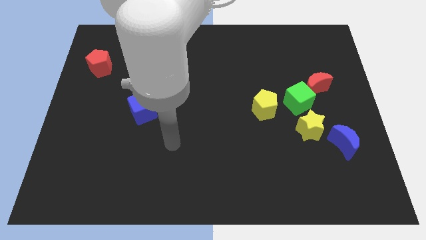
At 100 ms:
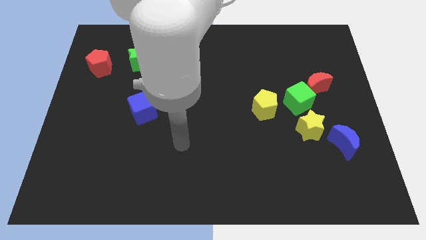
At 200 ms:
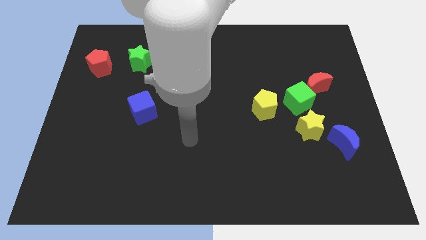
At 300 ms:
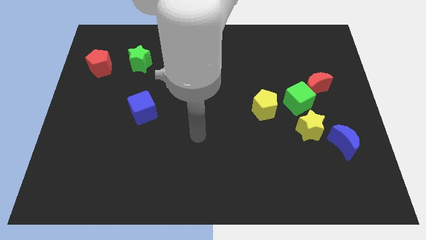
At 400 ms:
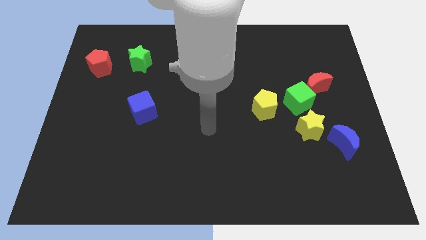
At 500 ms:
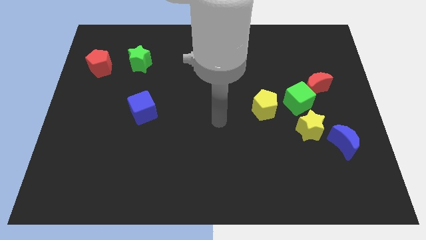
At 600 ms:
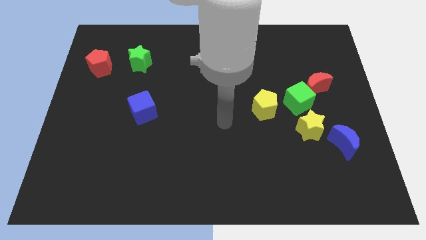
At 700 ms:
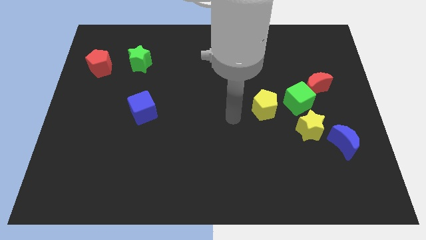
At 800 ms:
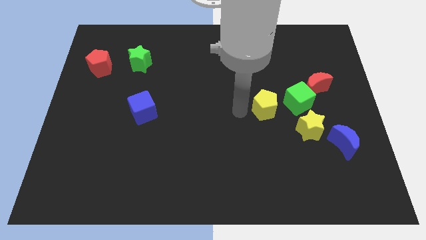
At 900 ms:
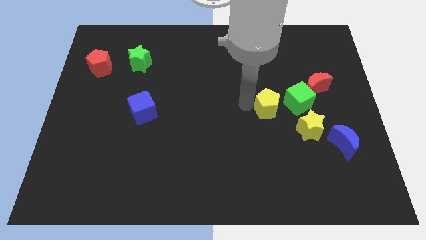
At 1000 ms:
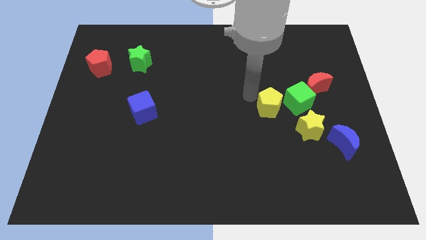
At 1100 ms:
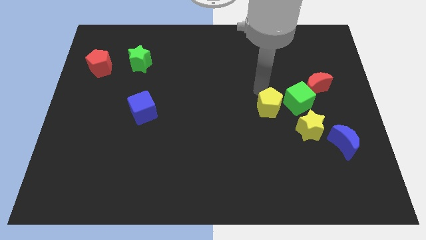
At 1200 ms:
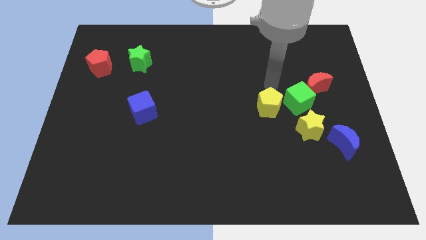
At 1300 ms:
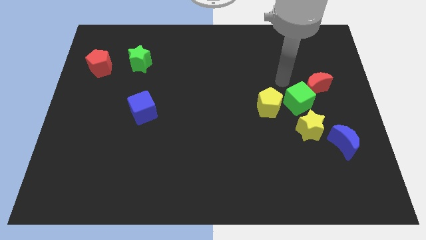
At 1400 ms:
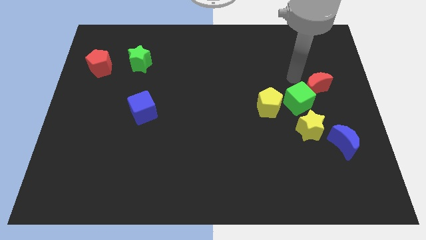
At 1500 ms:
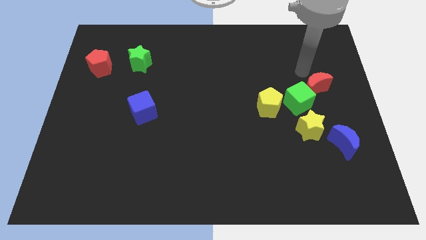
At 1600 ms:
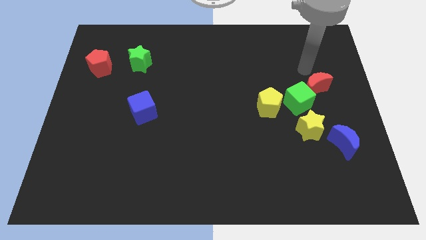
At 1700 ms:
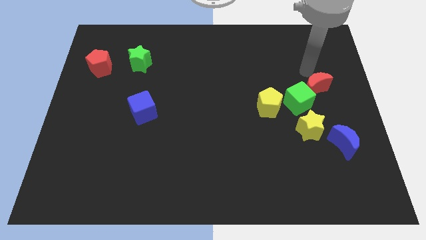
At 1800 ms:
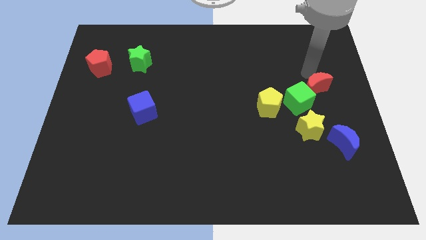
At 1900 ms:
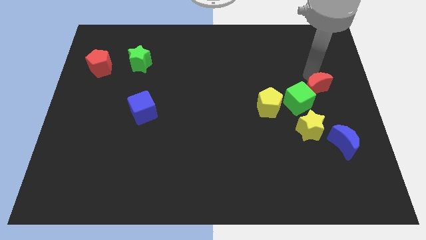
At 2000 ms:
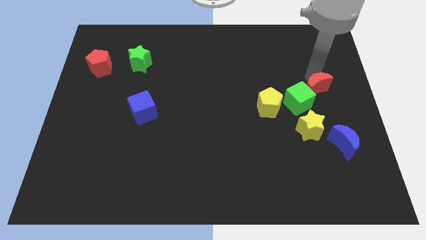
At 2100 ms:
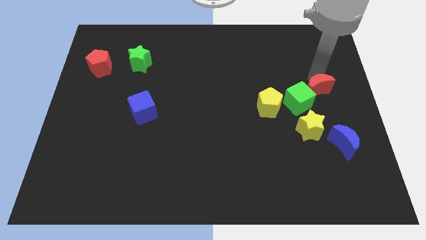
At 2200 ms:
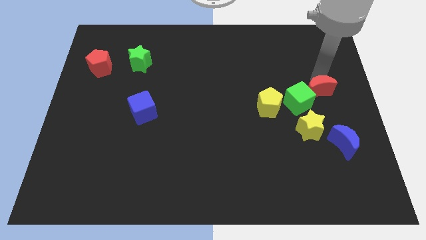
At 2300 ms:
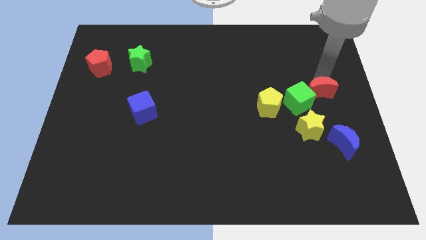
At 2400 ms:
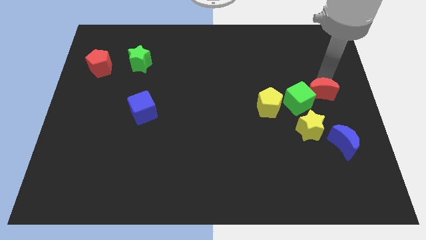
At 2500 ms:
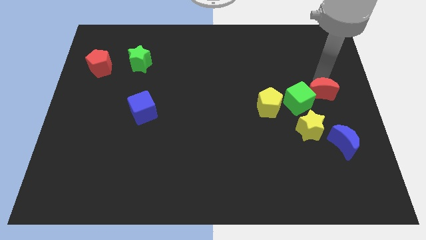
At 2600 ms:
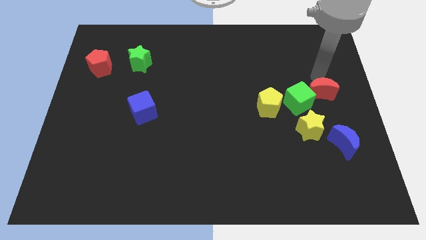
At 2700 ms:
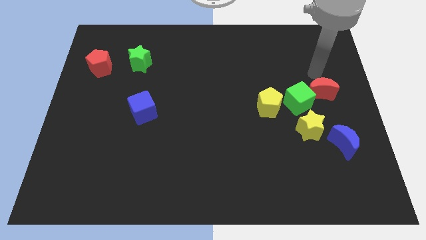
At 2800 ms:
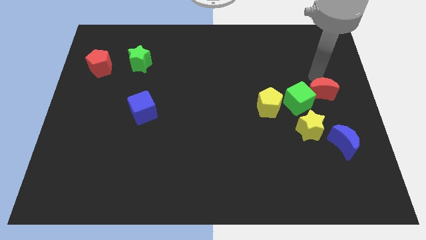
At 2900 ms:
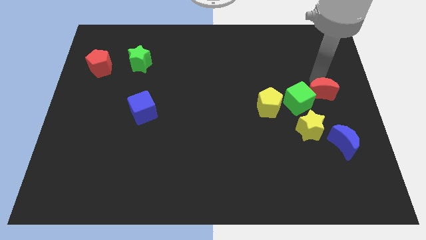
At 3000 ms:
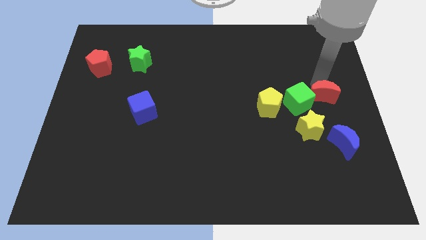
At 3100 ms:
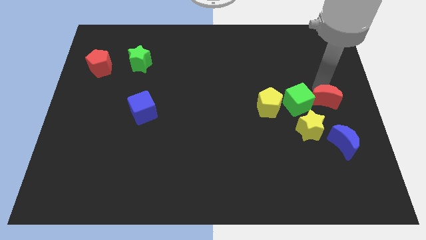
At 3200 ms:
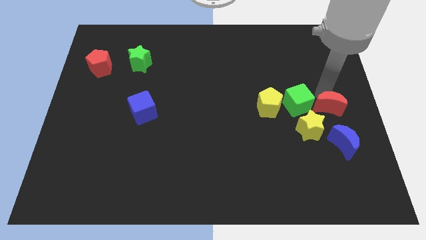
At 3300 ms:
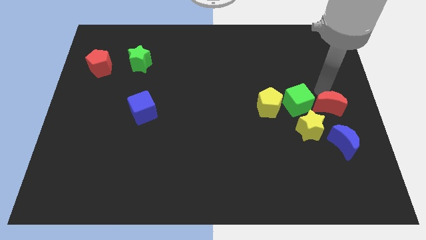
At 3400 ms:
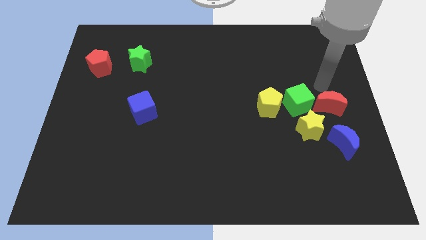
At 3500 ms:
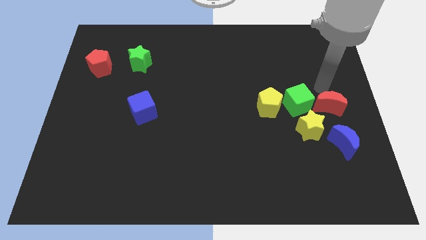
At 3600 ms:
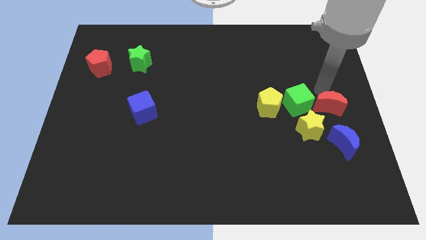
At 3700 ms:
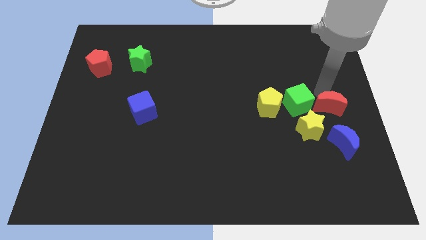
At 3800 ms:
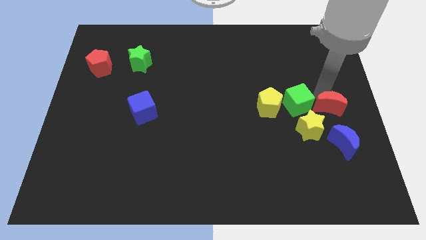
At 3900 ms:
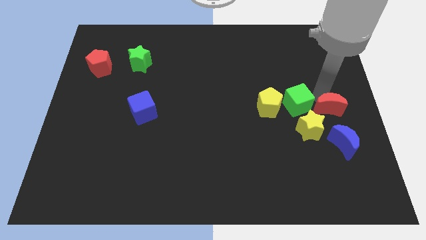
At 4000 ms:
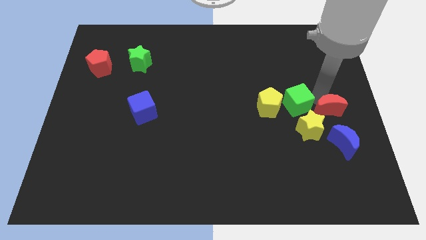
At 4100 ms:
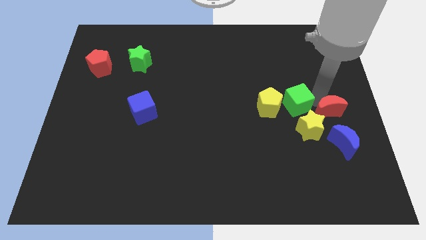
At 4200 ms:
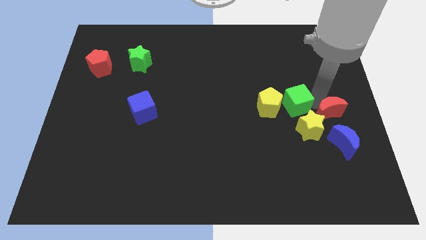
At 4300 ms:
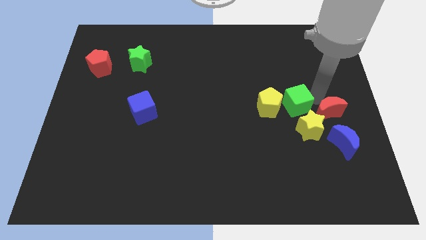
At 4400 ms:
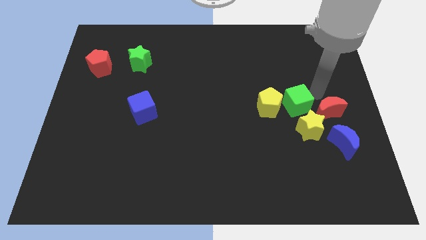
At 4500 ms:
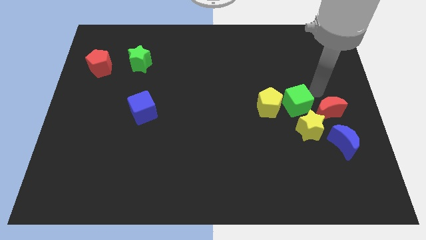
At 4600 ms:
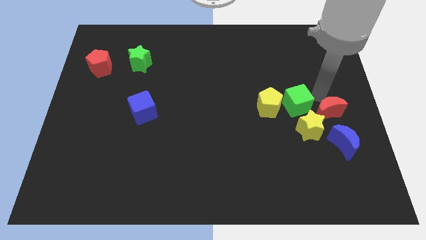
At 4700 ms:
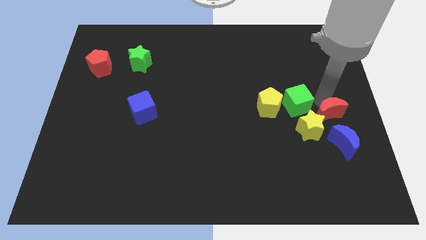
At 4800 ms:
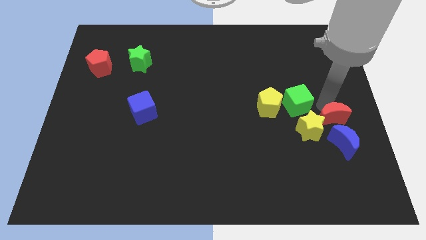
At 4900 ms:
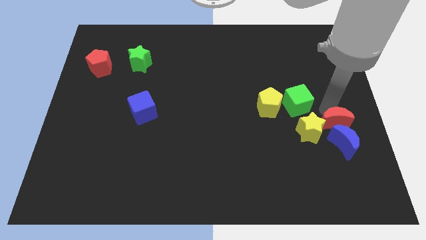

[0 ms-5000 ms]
put the red moon next to the blue moon

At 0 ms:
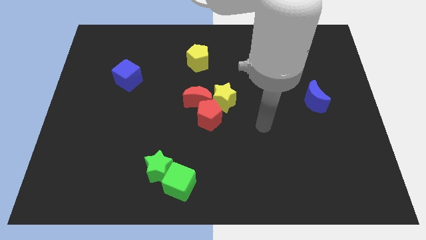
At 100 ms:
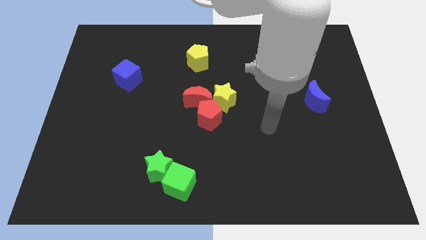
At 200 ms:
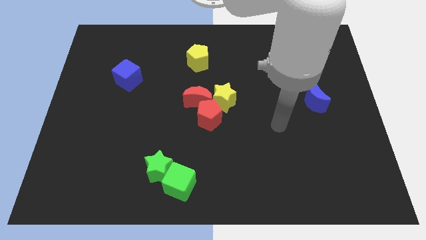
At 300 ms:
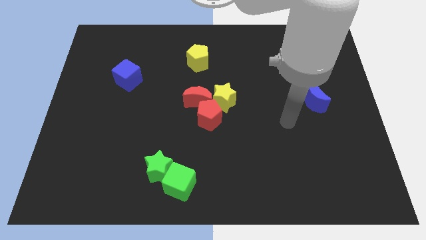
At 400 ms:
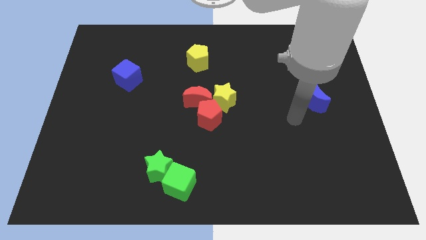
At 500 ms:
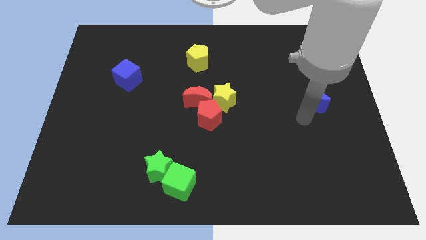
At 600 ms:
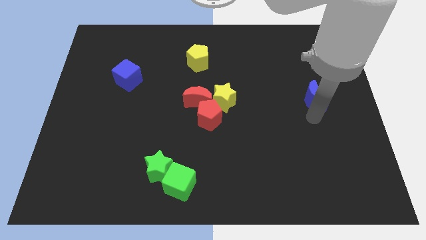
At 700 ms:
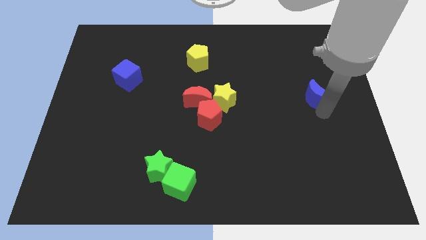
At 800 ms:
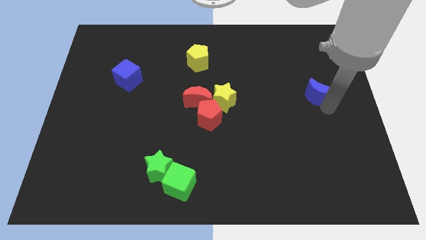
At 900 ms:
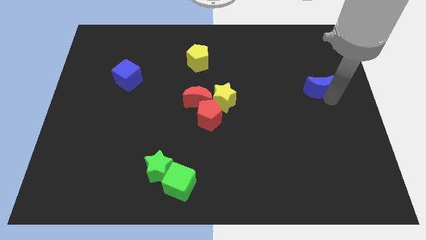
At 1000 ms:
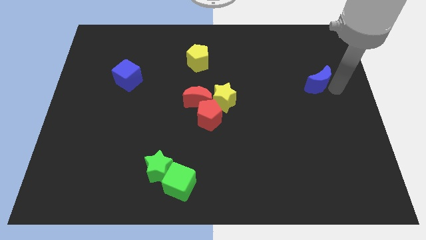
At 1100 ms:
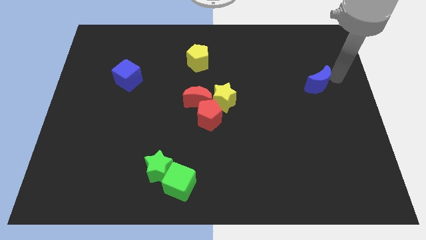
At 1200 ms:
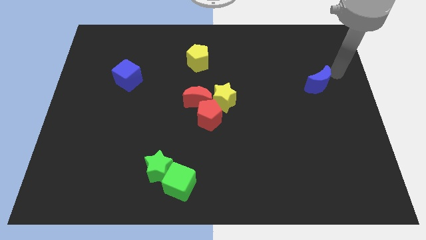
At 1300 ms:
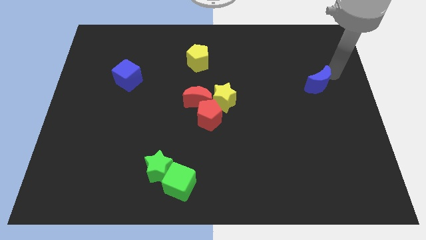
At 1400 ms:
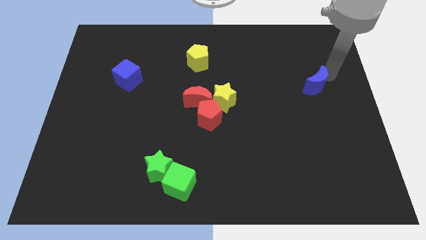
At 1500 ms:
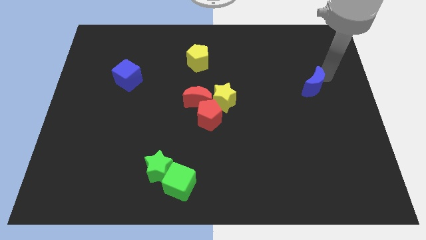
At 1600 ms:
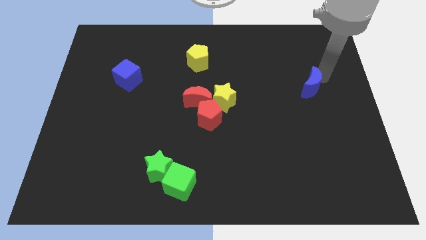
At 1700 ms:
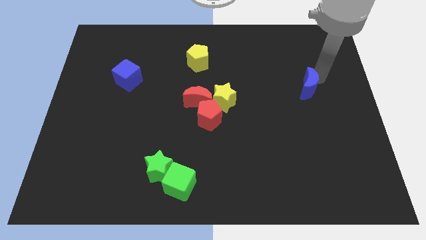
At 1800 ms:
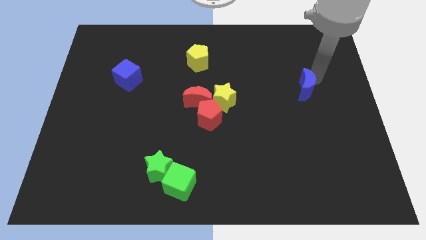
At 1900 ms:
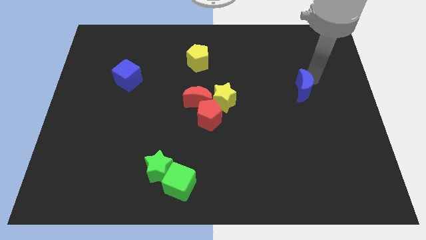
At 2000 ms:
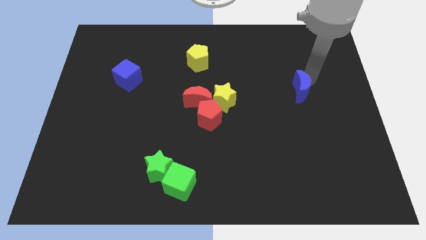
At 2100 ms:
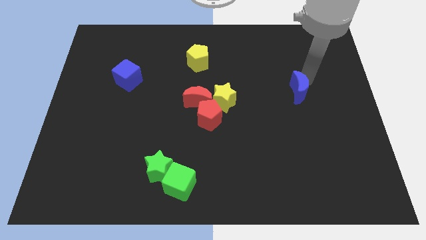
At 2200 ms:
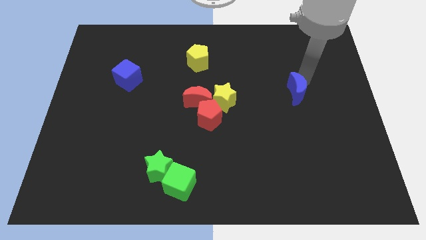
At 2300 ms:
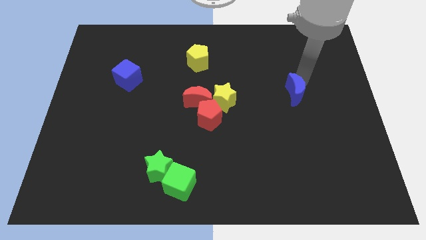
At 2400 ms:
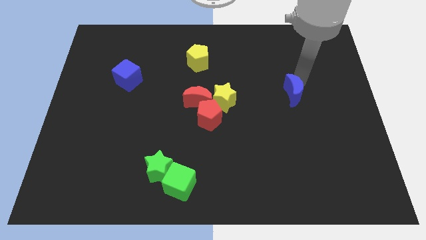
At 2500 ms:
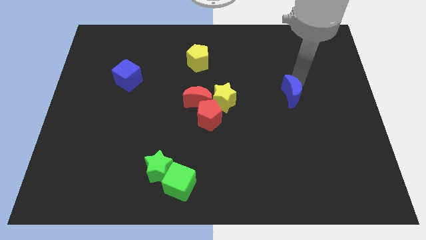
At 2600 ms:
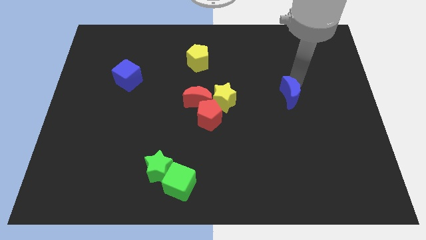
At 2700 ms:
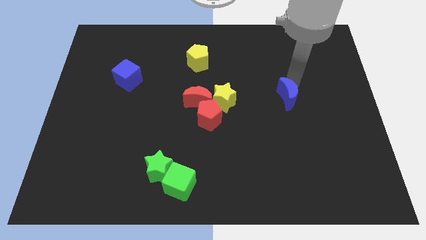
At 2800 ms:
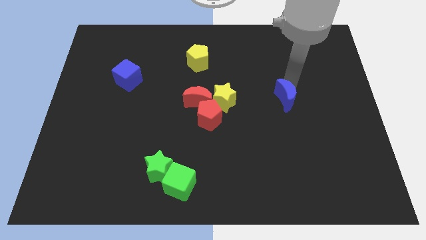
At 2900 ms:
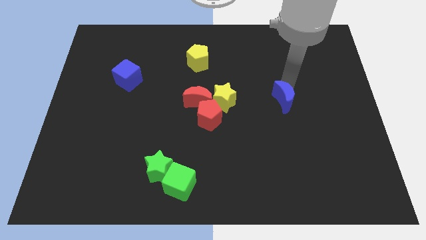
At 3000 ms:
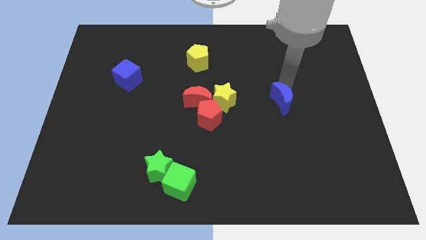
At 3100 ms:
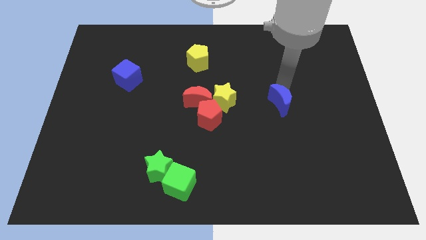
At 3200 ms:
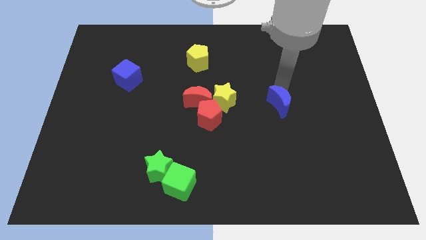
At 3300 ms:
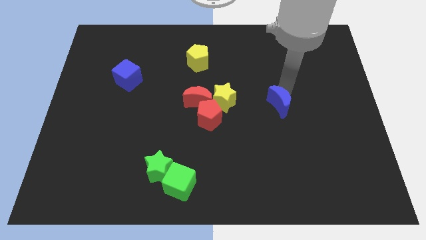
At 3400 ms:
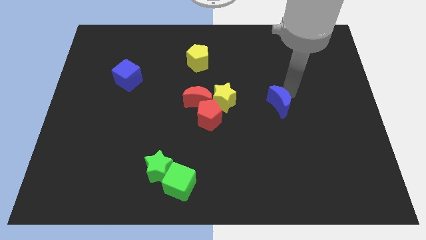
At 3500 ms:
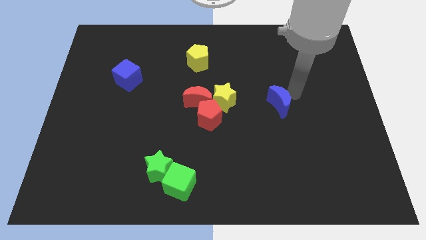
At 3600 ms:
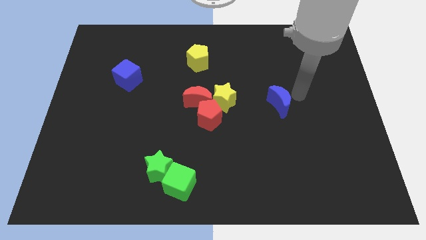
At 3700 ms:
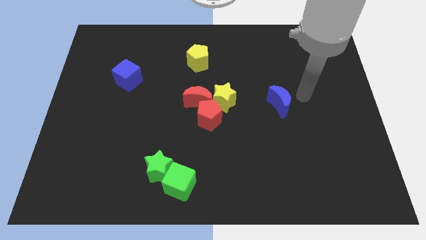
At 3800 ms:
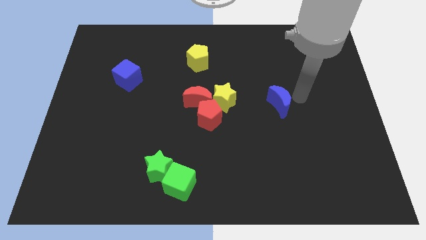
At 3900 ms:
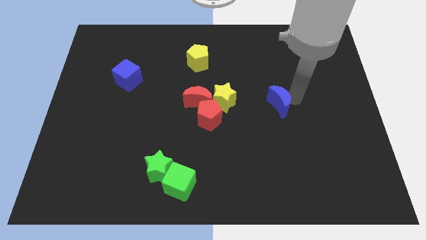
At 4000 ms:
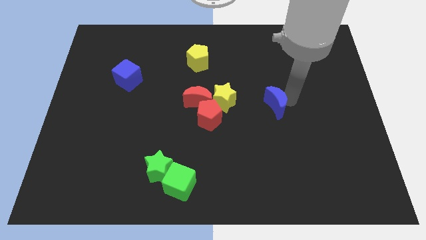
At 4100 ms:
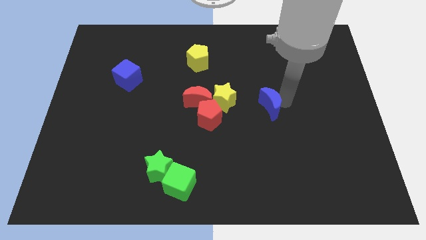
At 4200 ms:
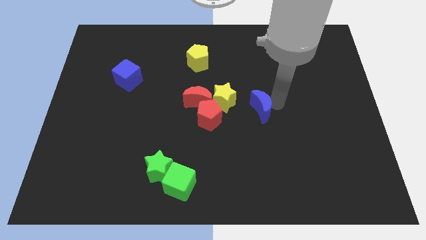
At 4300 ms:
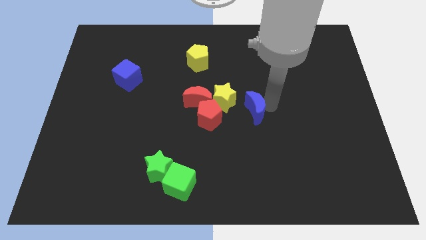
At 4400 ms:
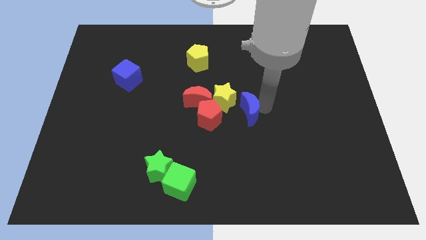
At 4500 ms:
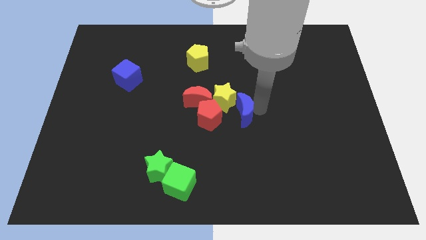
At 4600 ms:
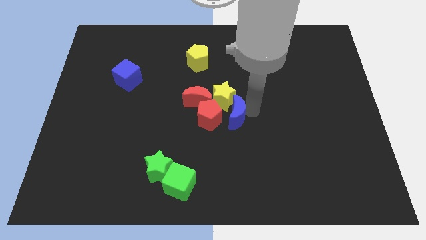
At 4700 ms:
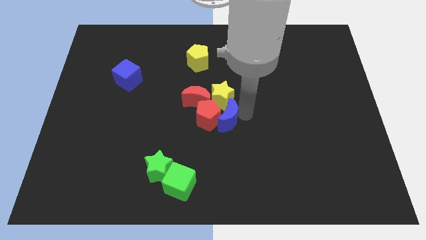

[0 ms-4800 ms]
slide the blue moon towards the red pentagon
